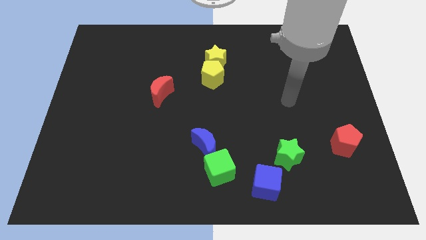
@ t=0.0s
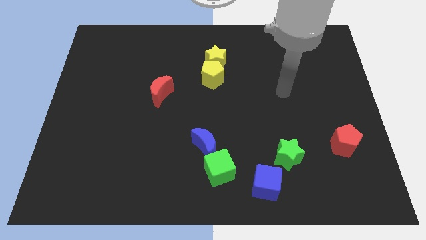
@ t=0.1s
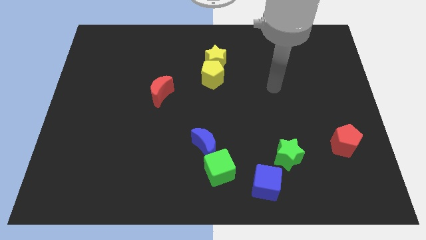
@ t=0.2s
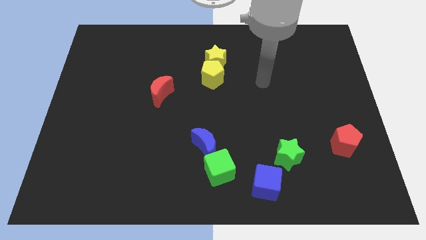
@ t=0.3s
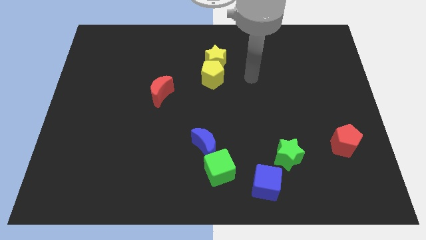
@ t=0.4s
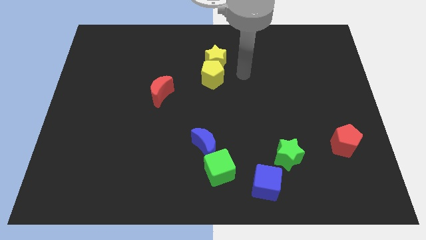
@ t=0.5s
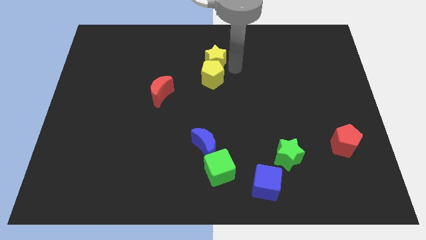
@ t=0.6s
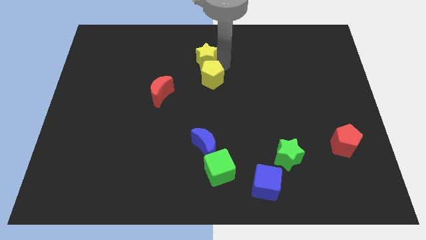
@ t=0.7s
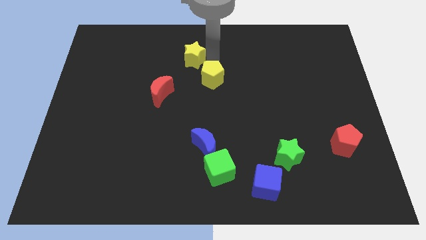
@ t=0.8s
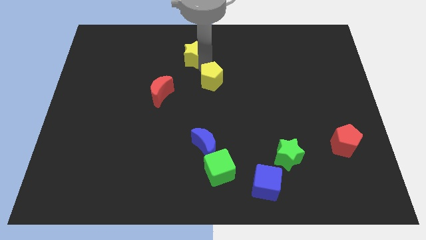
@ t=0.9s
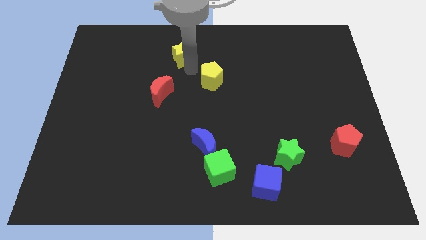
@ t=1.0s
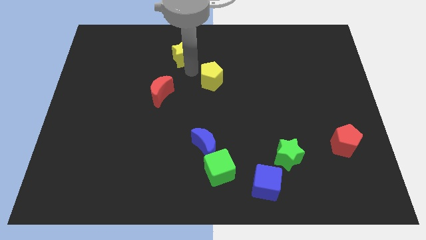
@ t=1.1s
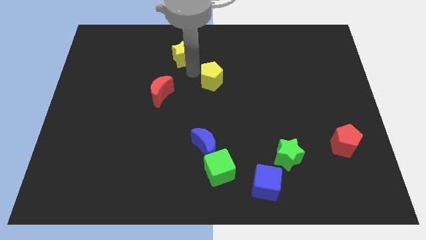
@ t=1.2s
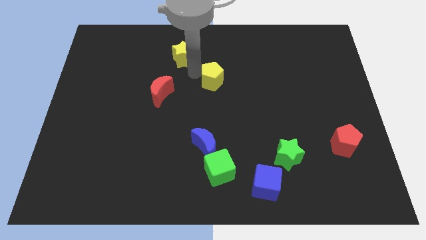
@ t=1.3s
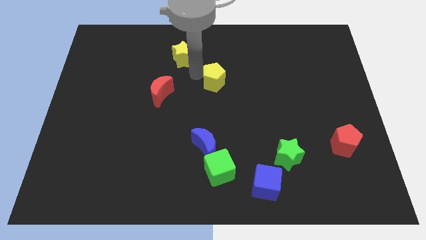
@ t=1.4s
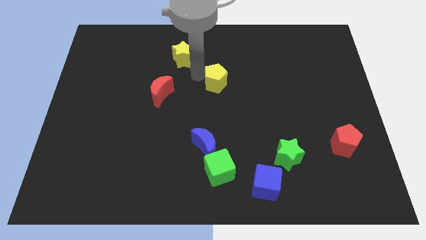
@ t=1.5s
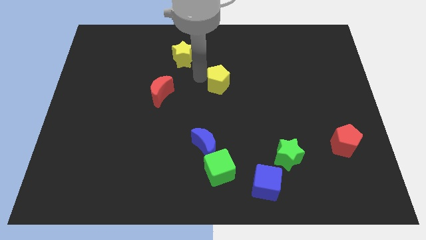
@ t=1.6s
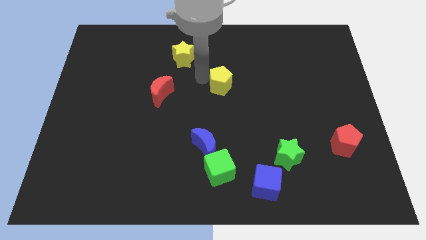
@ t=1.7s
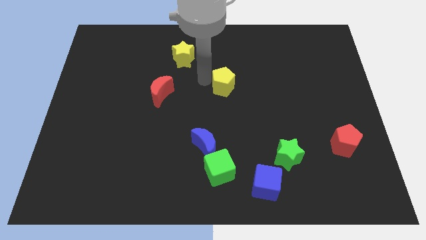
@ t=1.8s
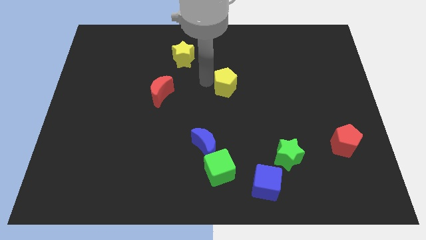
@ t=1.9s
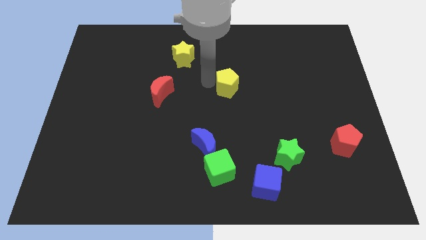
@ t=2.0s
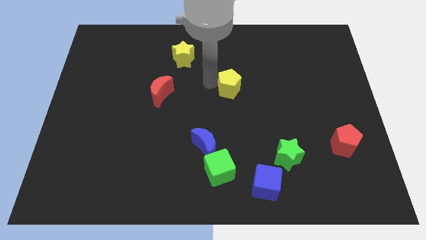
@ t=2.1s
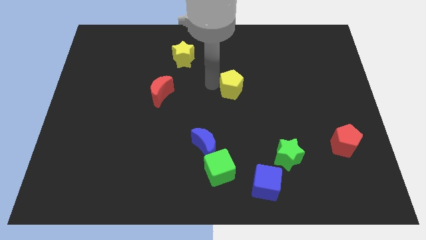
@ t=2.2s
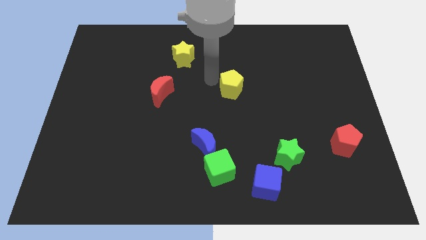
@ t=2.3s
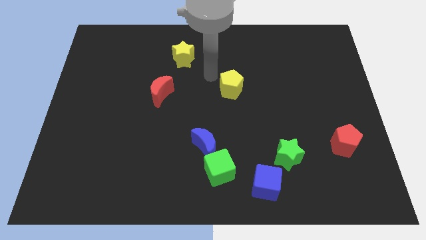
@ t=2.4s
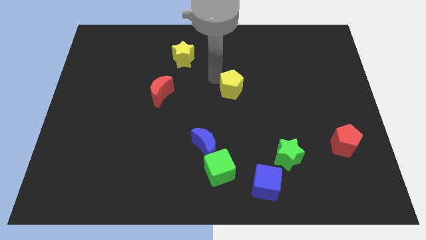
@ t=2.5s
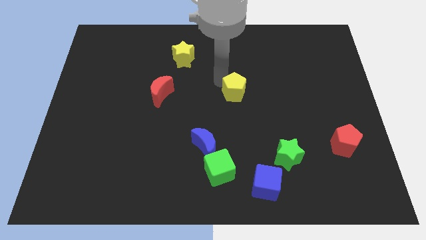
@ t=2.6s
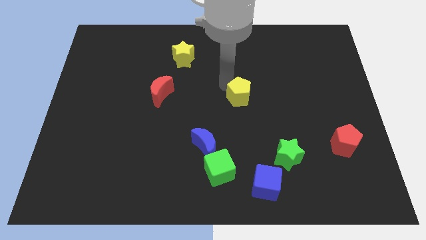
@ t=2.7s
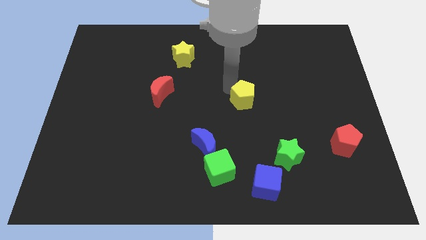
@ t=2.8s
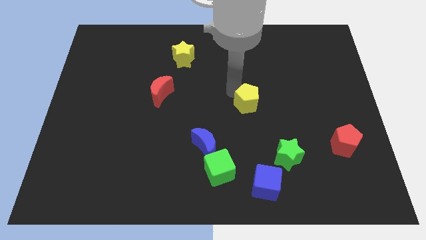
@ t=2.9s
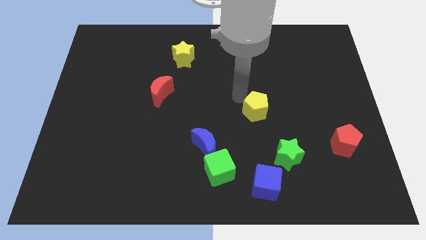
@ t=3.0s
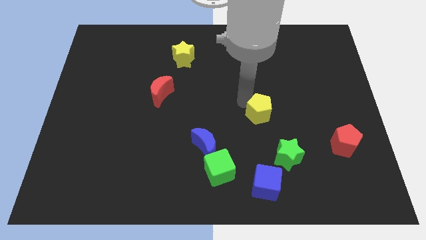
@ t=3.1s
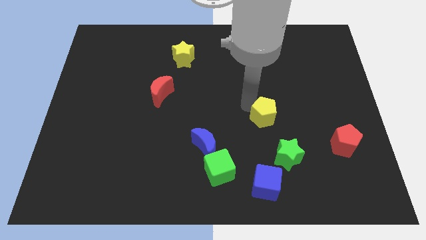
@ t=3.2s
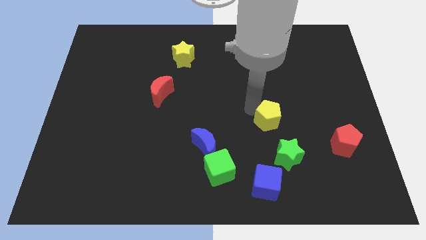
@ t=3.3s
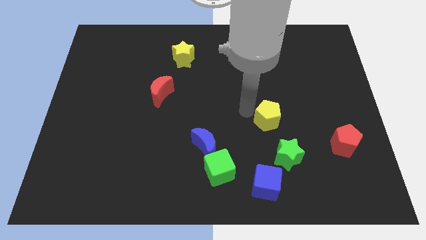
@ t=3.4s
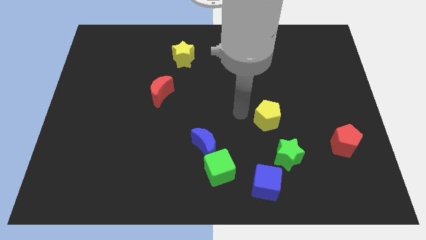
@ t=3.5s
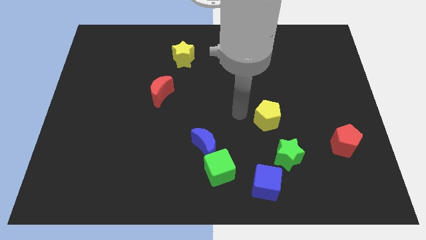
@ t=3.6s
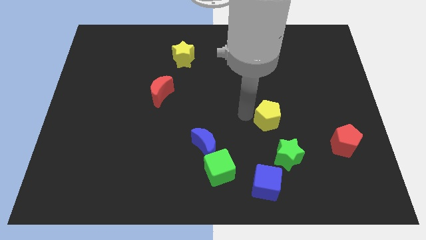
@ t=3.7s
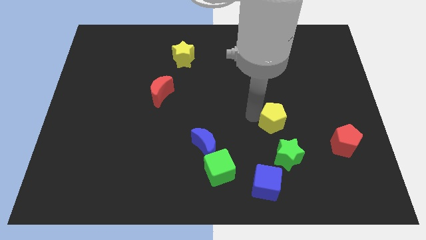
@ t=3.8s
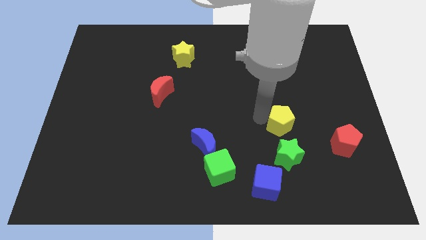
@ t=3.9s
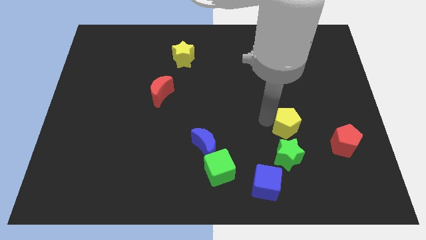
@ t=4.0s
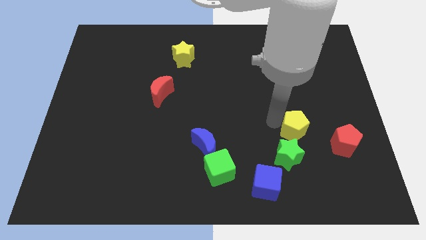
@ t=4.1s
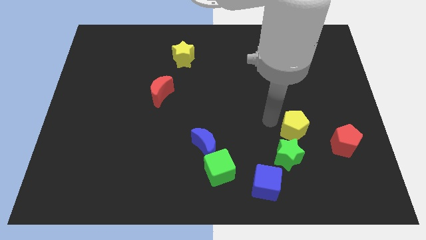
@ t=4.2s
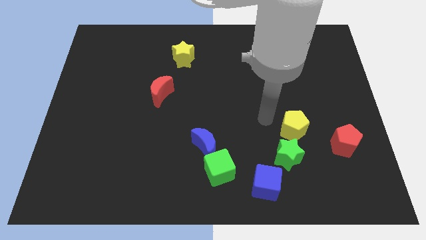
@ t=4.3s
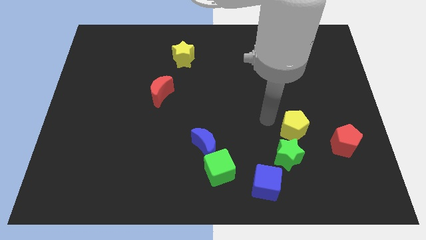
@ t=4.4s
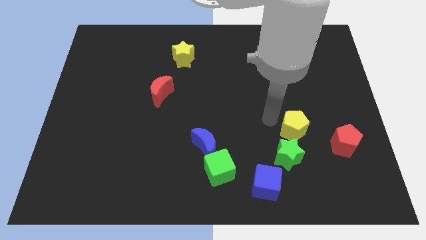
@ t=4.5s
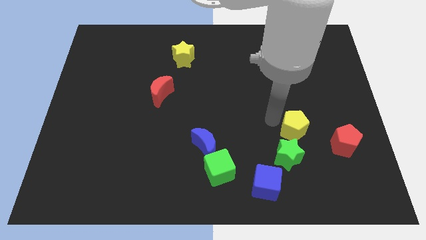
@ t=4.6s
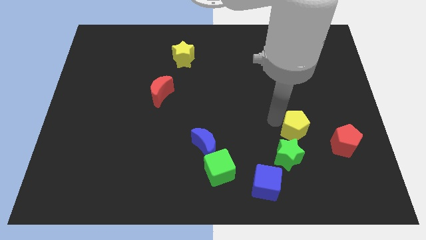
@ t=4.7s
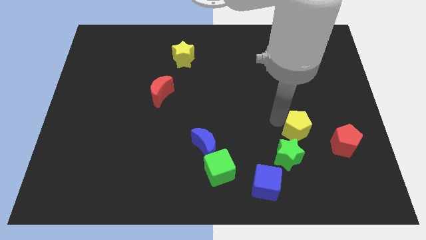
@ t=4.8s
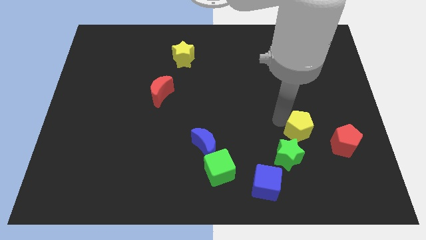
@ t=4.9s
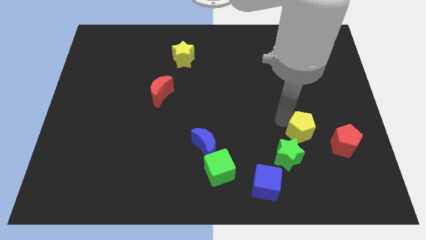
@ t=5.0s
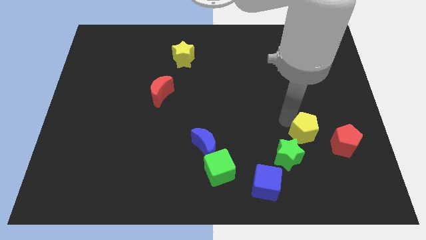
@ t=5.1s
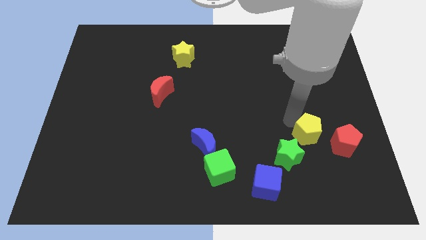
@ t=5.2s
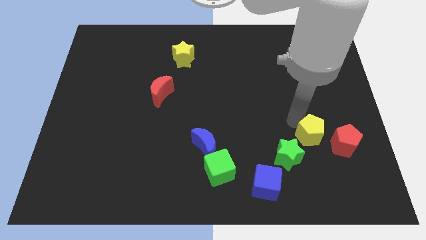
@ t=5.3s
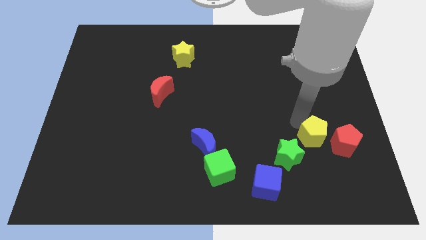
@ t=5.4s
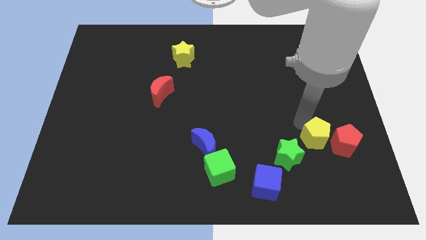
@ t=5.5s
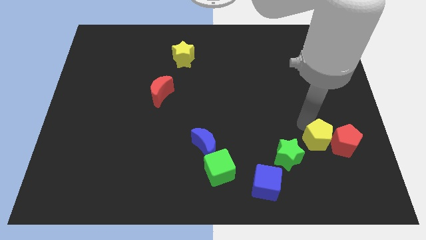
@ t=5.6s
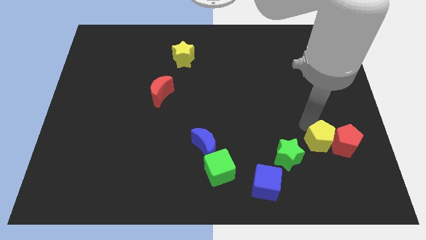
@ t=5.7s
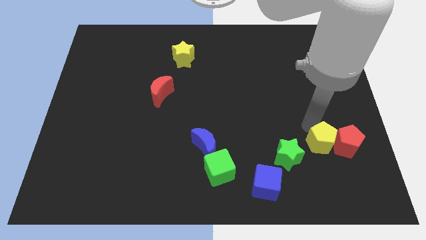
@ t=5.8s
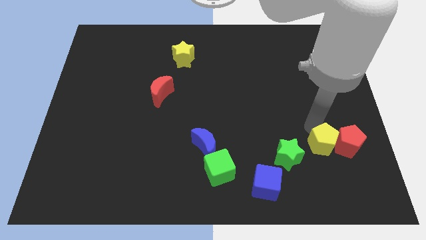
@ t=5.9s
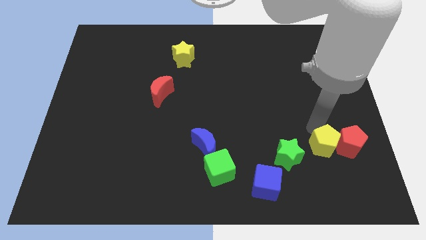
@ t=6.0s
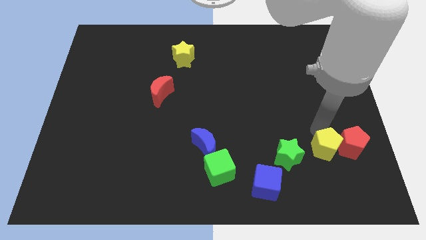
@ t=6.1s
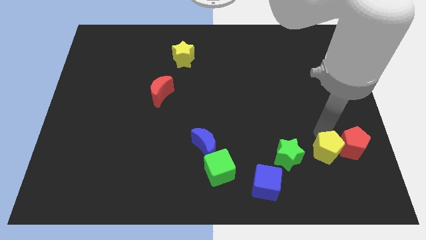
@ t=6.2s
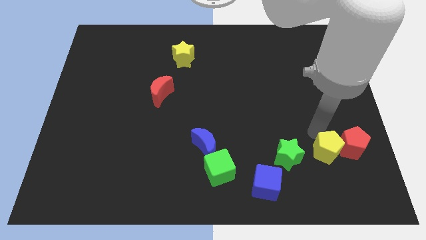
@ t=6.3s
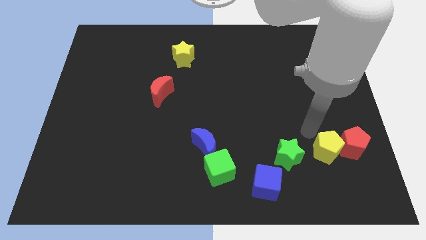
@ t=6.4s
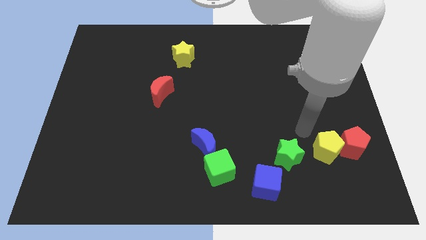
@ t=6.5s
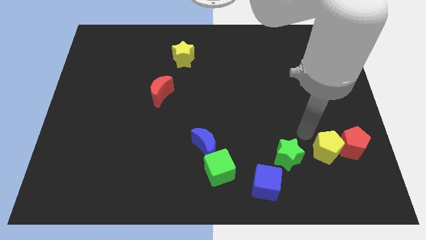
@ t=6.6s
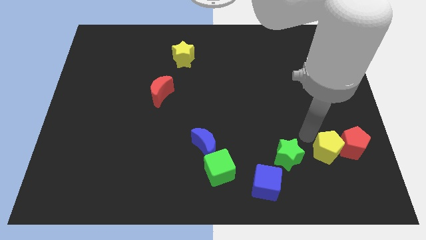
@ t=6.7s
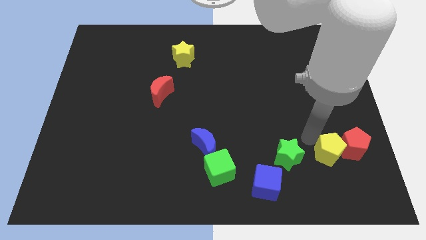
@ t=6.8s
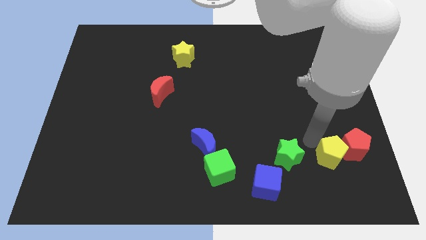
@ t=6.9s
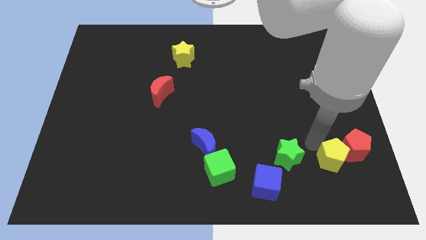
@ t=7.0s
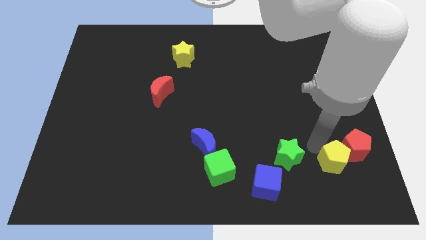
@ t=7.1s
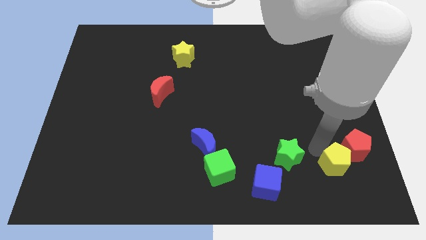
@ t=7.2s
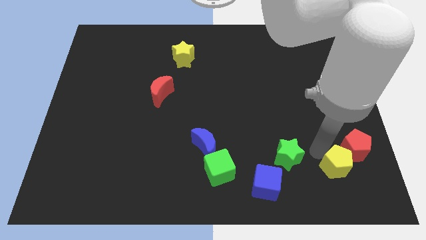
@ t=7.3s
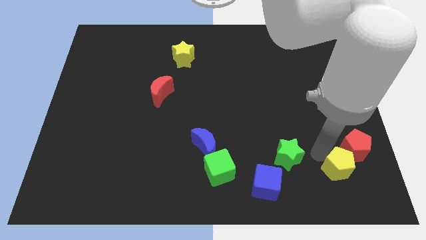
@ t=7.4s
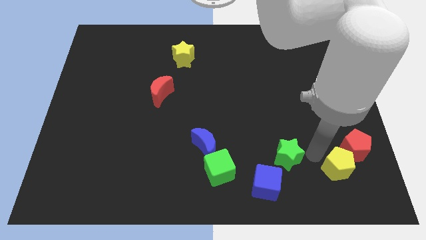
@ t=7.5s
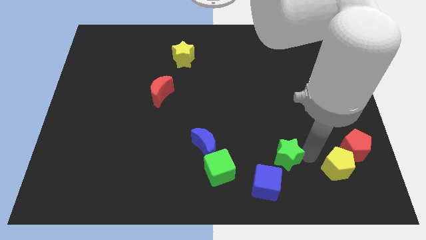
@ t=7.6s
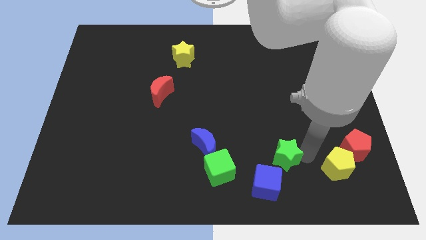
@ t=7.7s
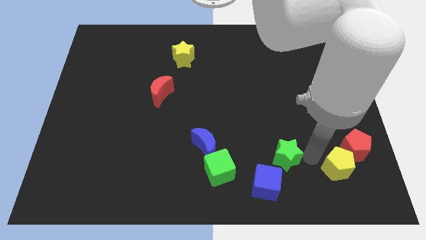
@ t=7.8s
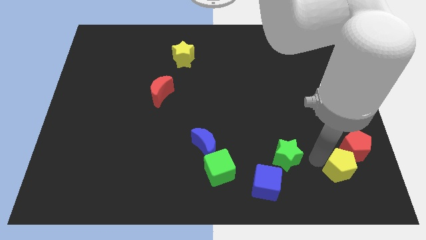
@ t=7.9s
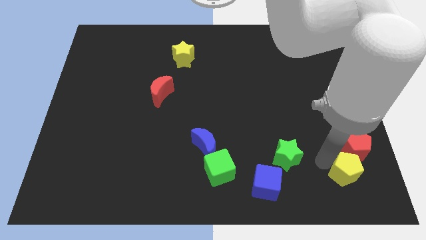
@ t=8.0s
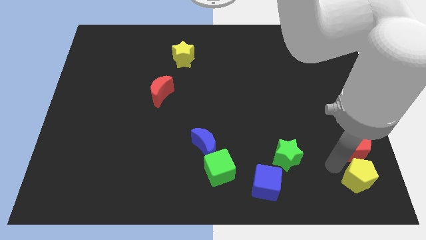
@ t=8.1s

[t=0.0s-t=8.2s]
push the yellow pentagon to the bottom right
